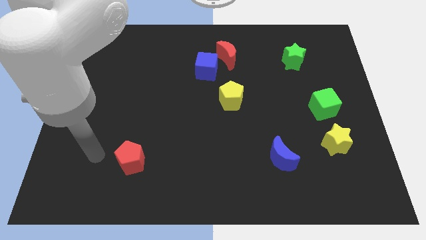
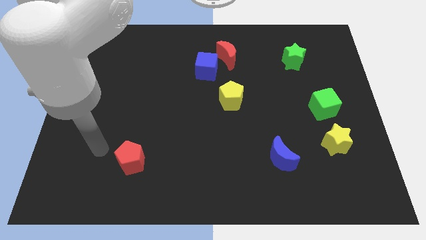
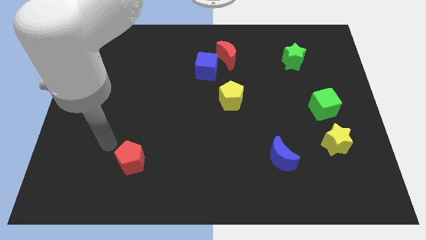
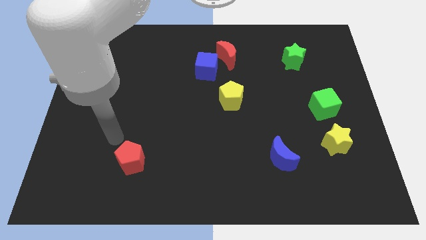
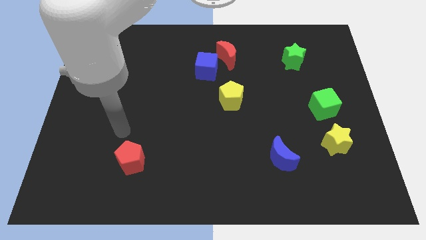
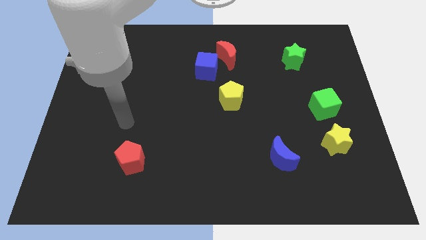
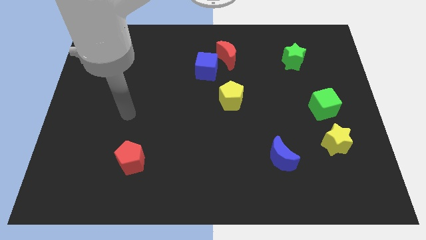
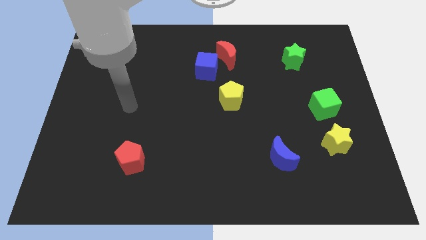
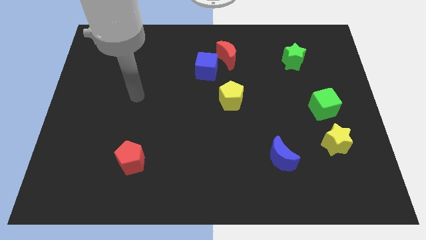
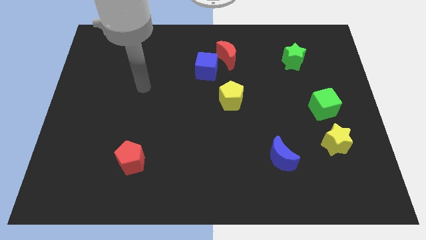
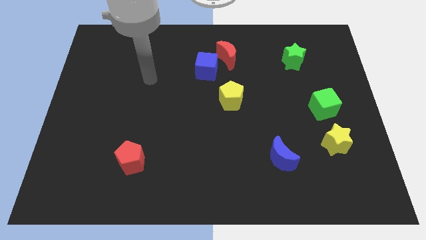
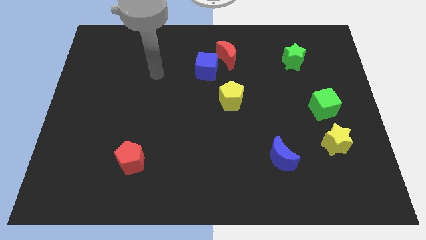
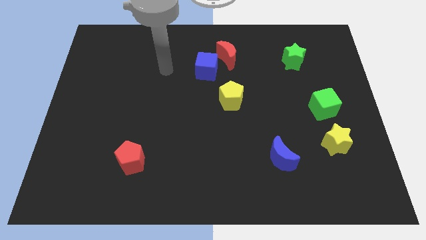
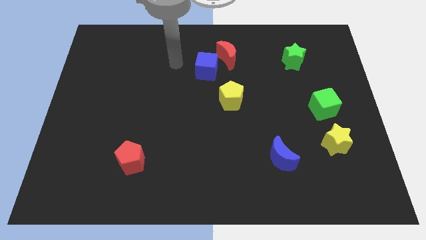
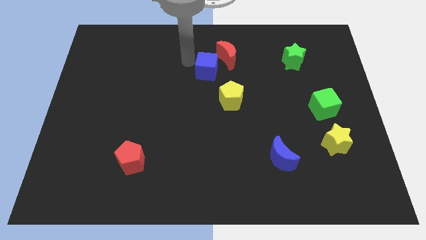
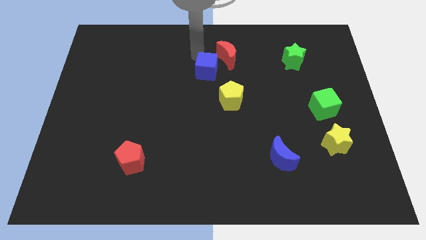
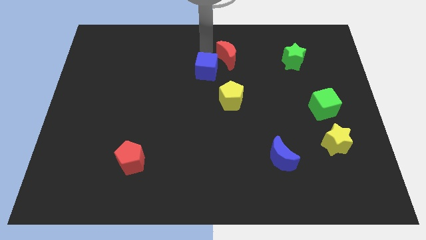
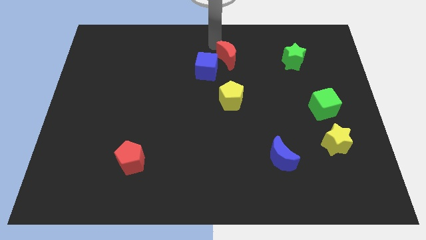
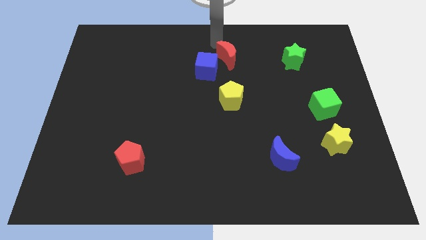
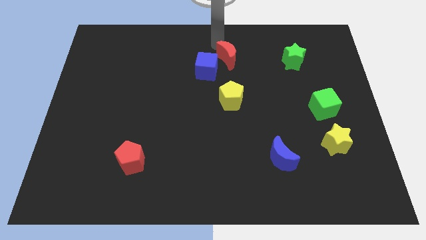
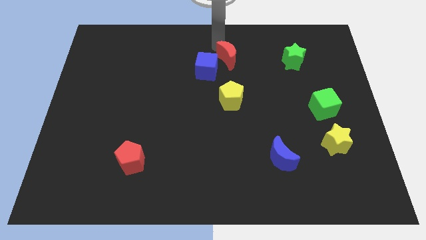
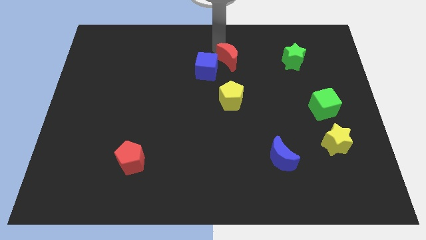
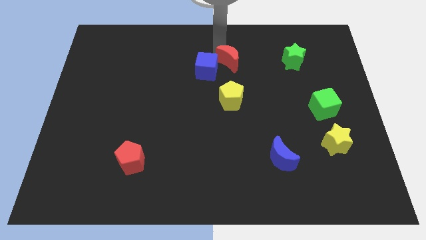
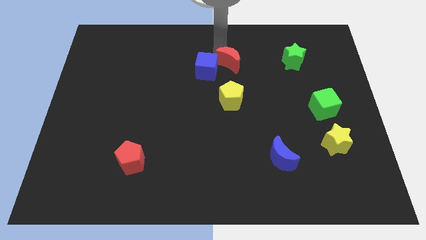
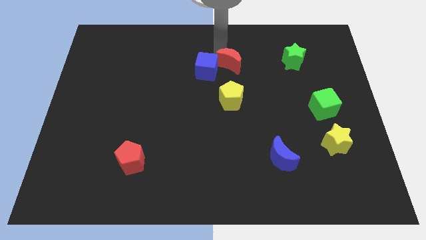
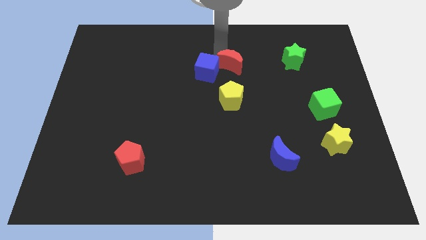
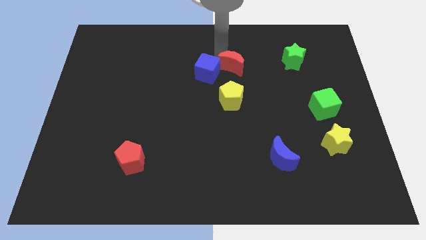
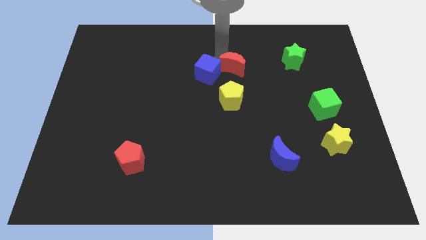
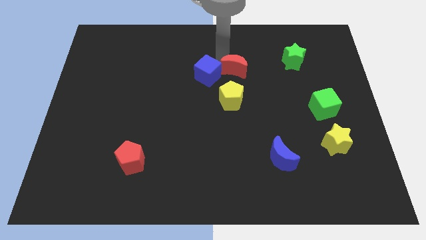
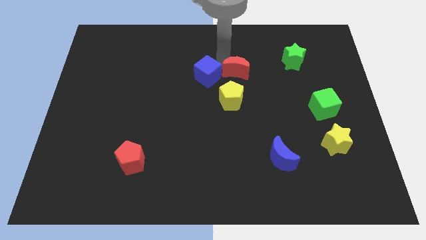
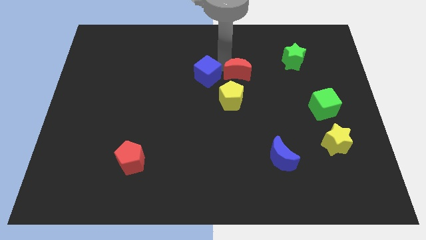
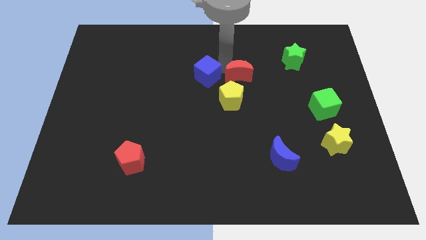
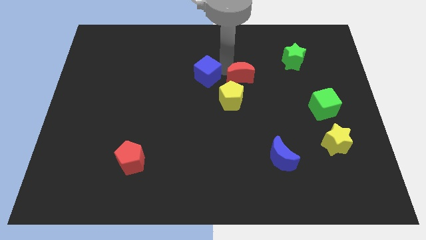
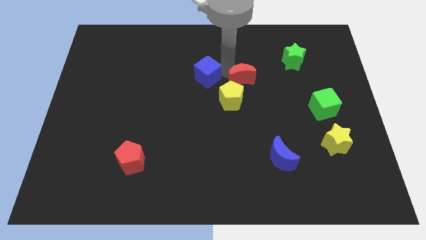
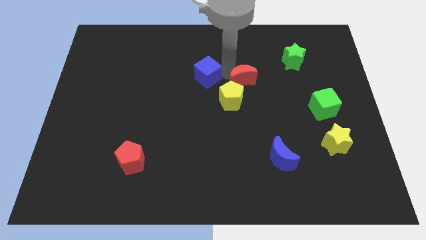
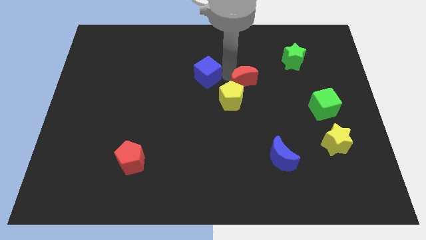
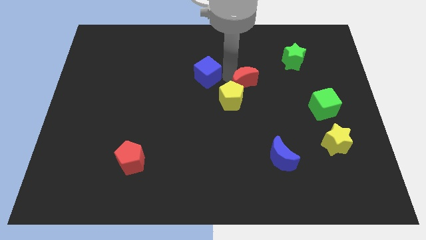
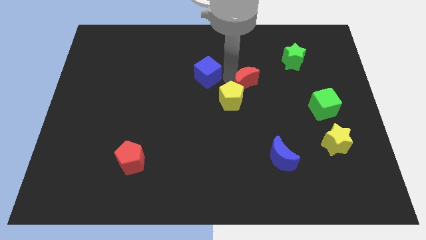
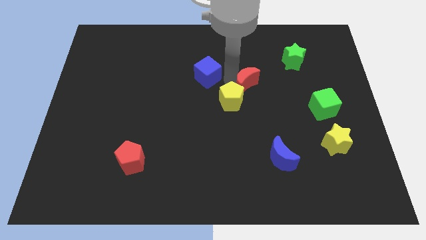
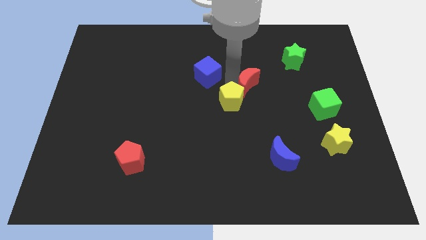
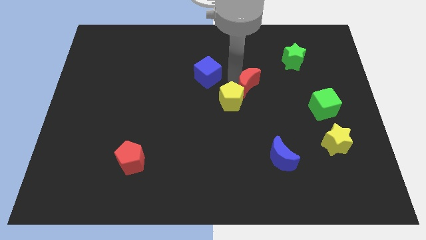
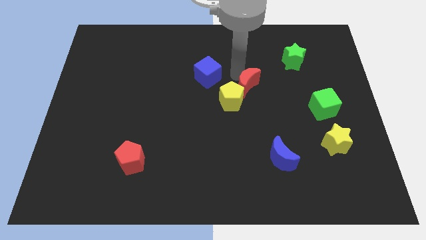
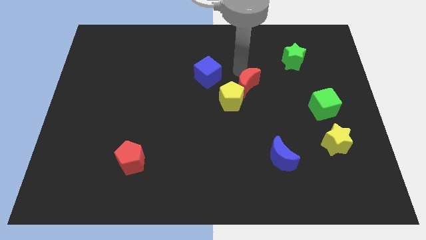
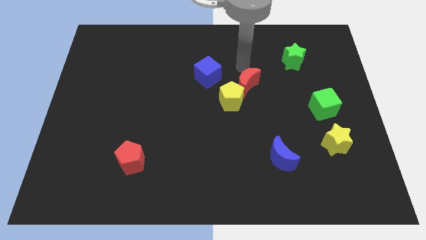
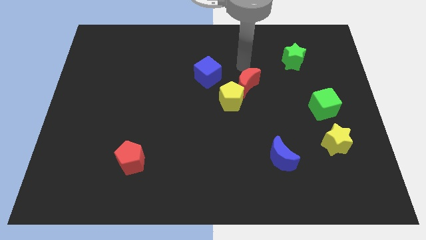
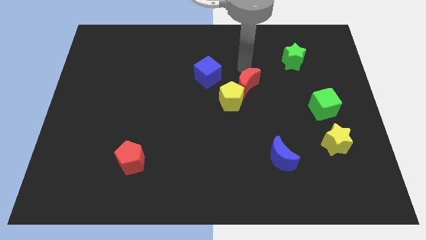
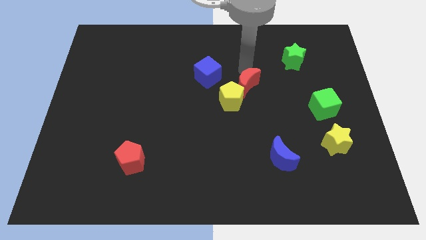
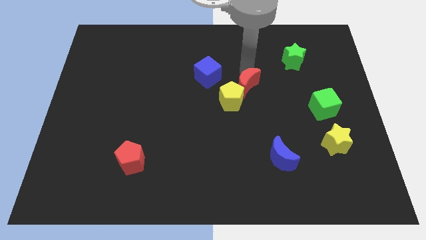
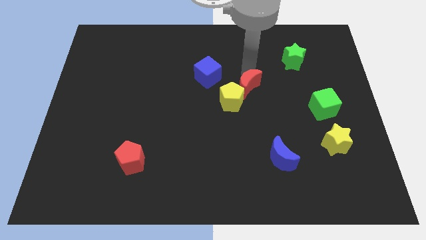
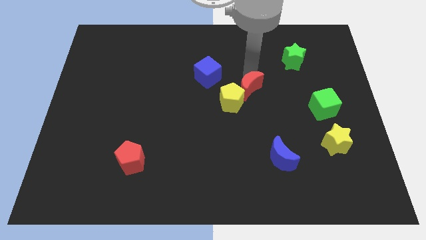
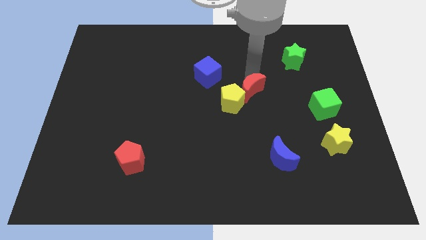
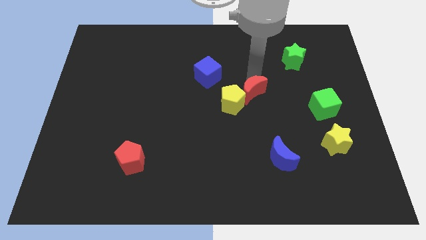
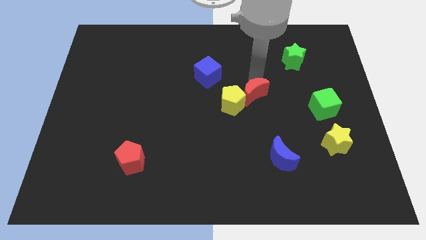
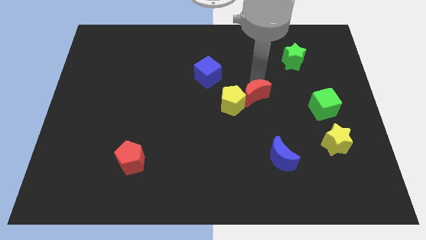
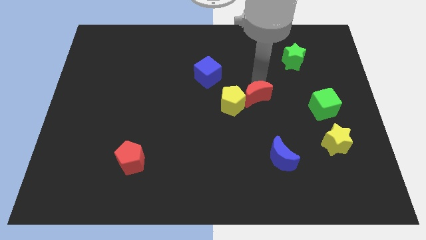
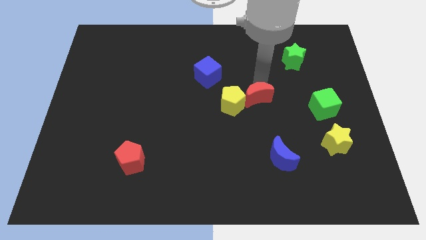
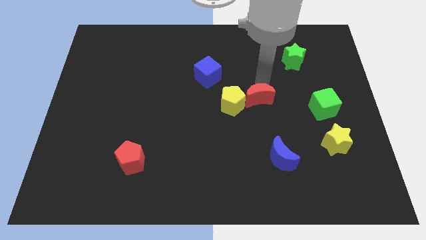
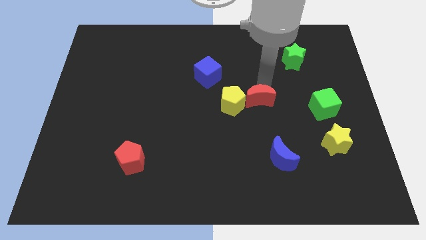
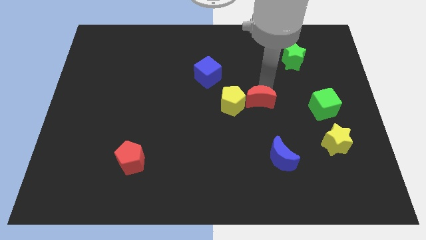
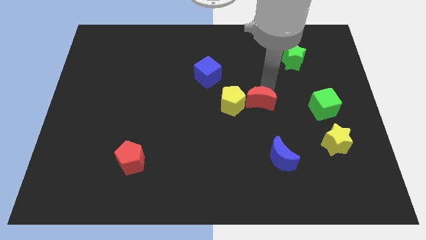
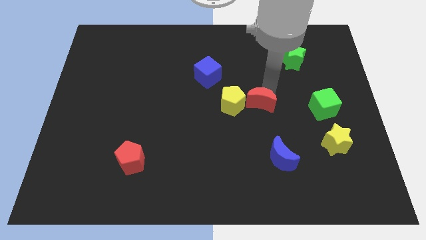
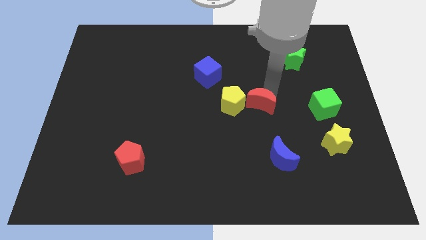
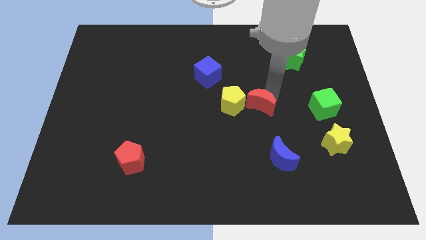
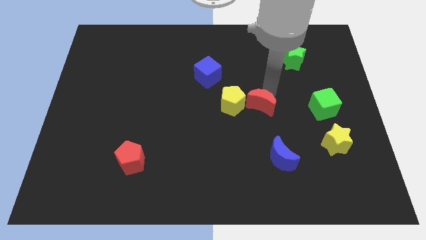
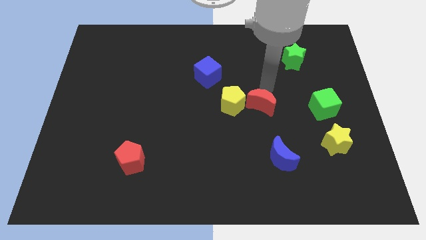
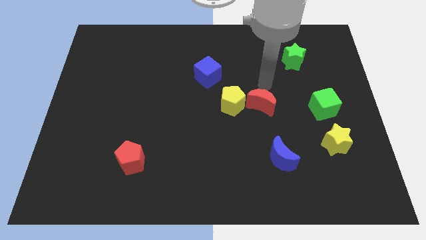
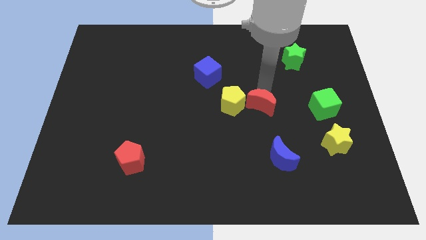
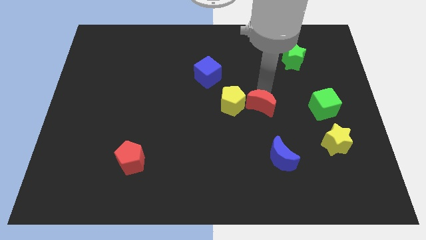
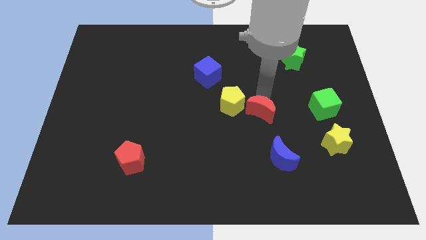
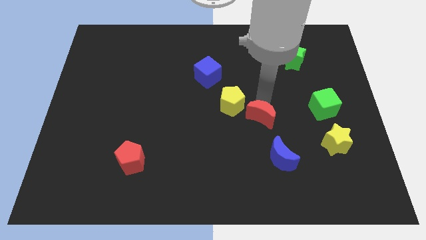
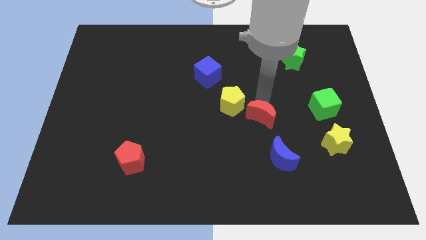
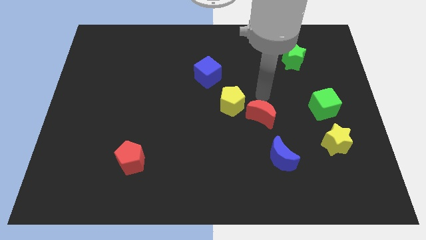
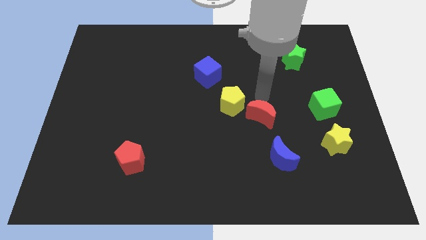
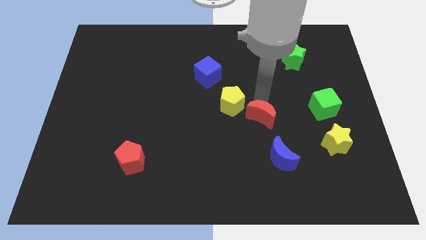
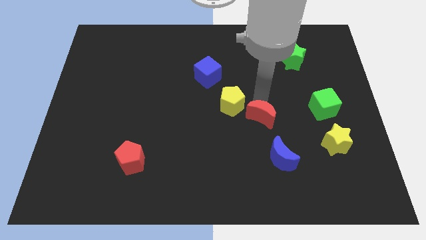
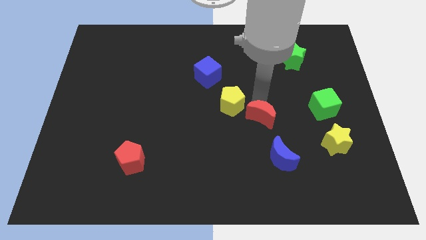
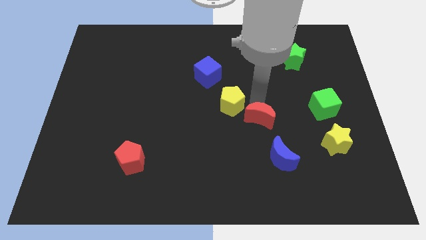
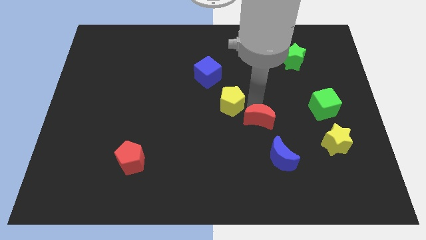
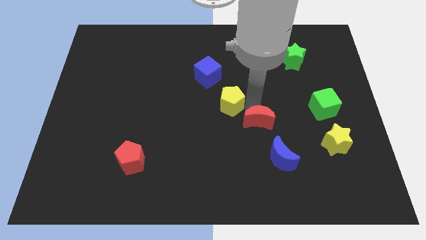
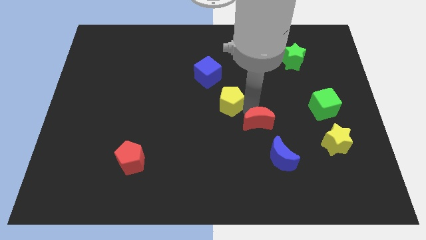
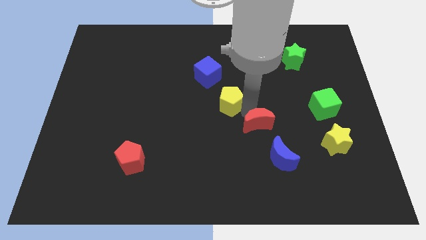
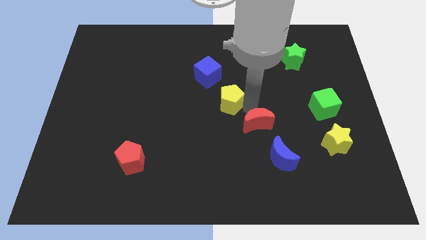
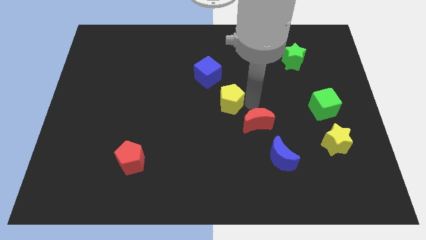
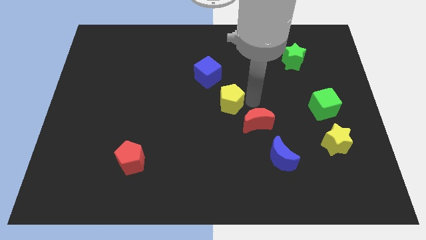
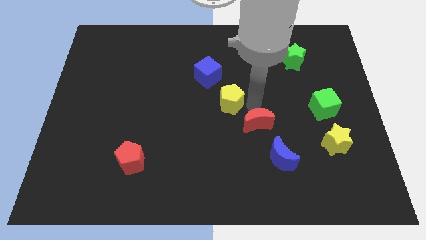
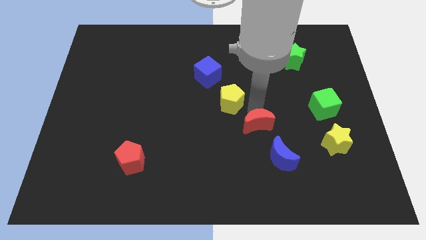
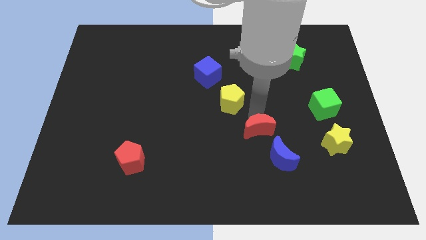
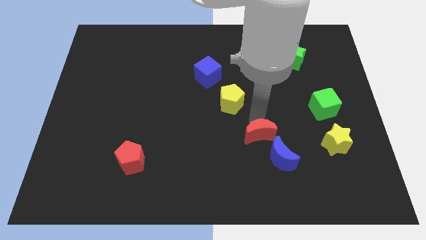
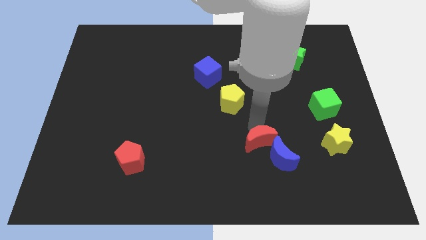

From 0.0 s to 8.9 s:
slide the red moon to the blue moon
